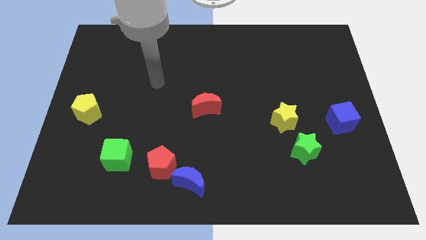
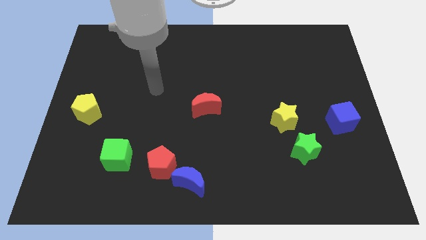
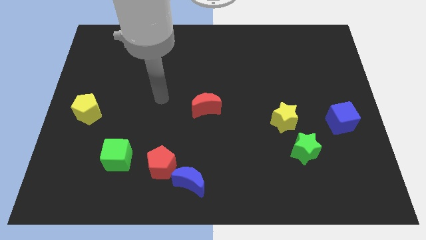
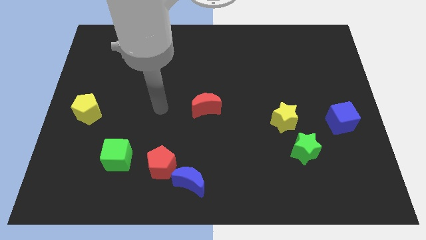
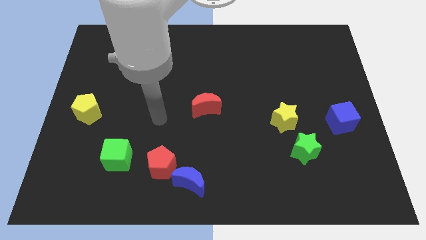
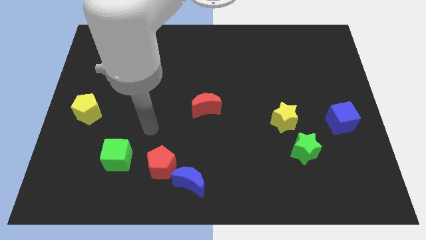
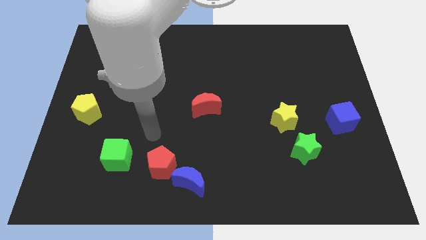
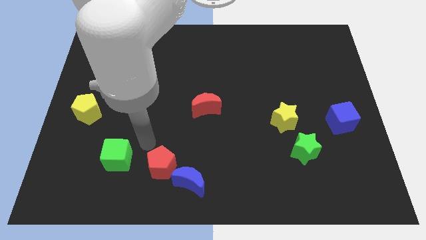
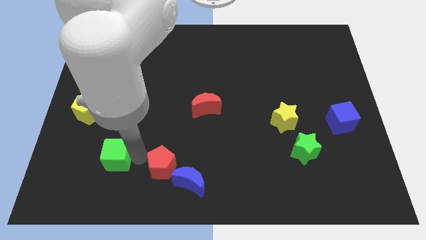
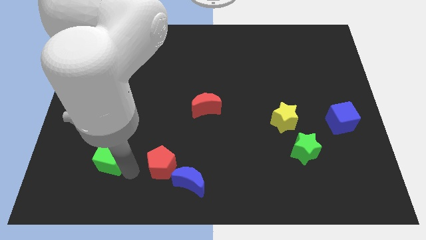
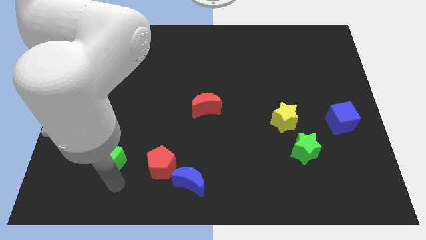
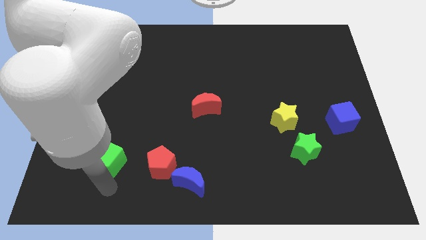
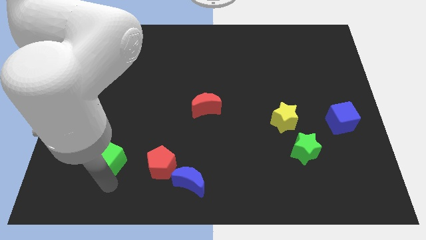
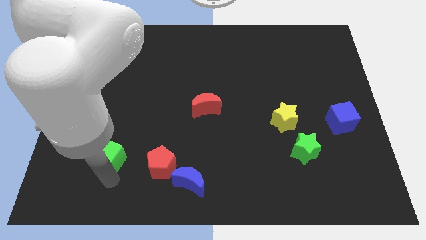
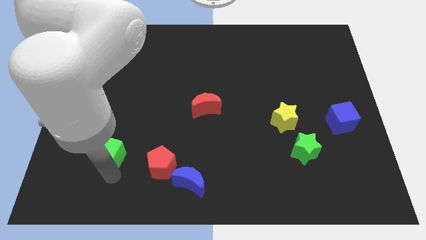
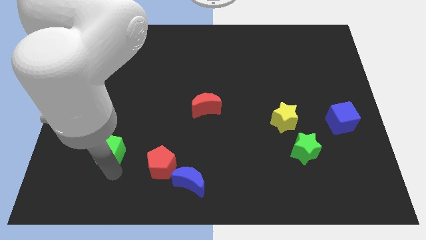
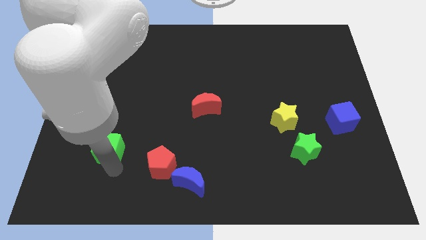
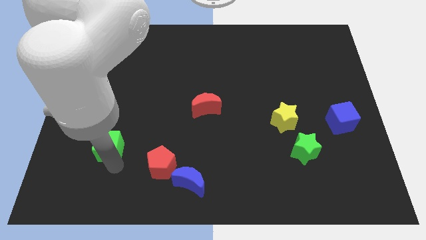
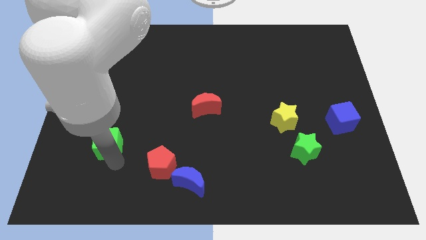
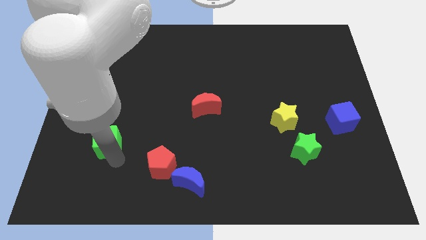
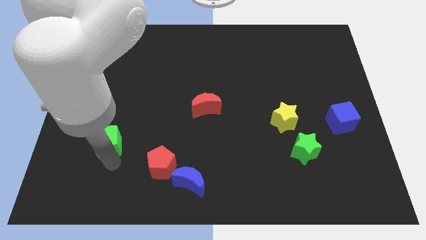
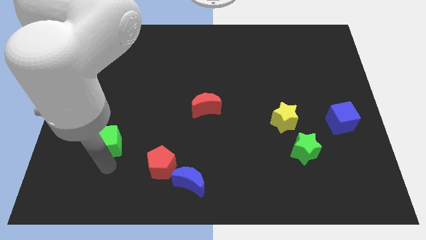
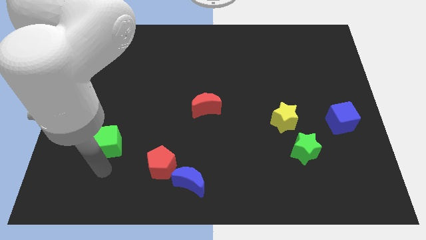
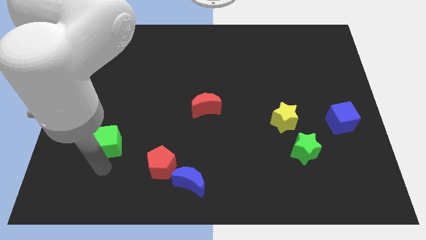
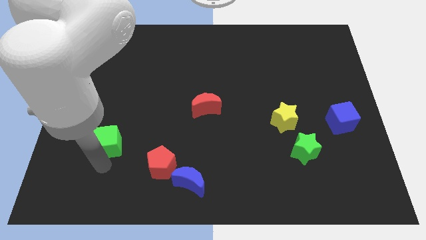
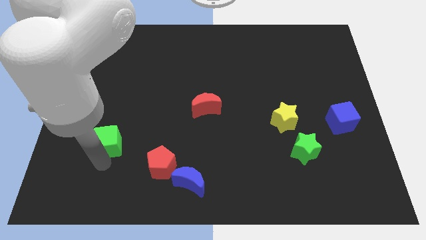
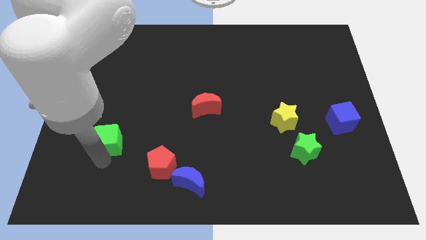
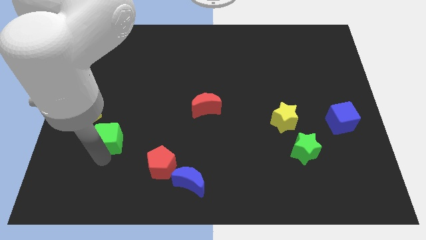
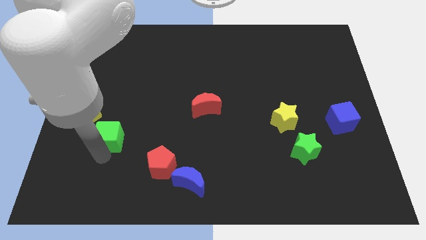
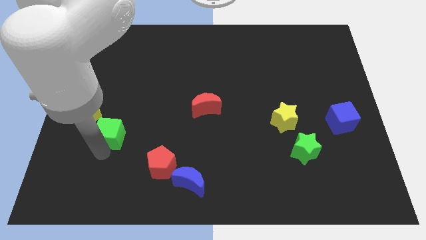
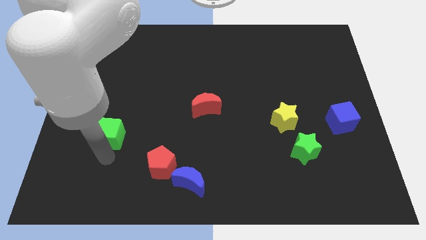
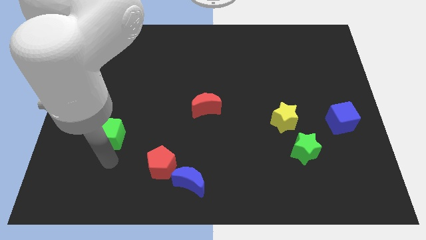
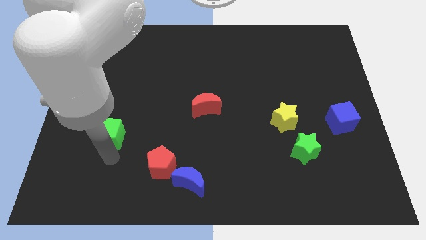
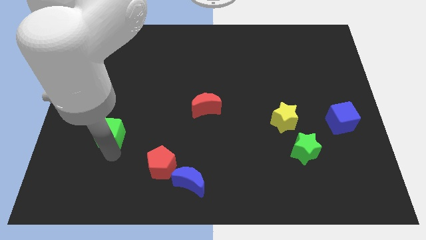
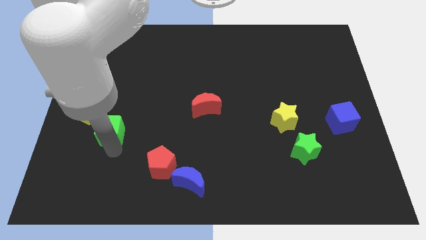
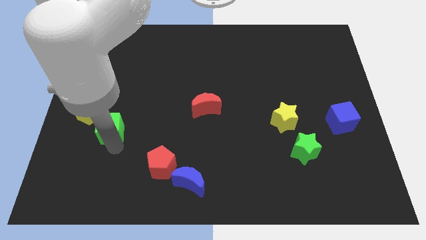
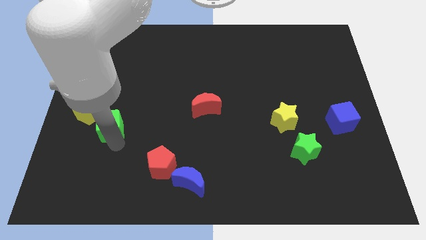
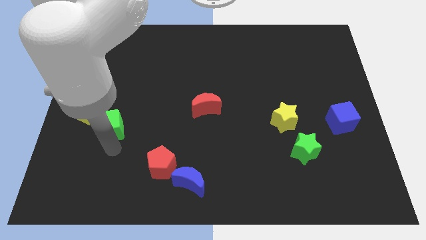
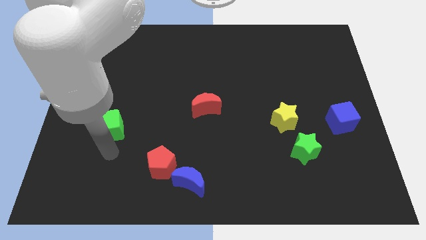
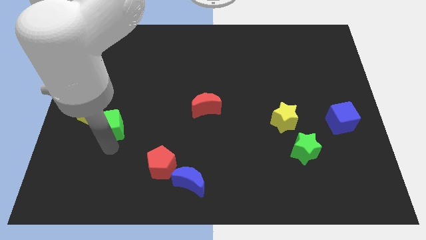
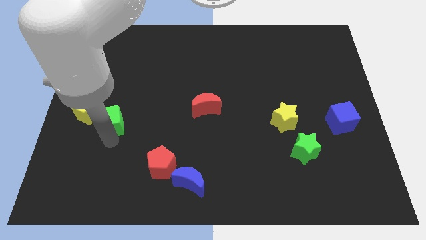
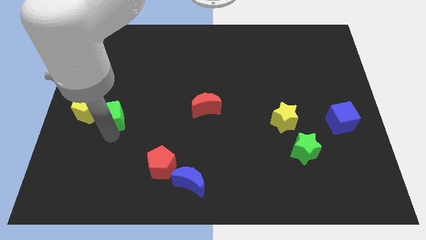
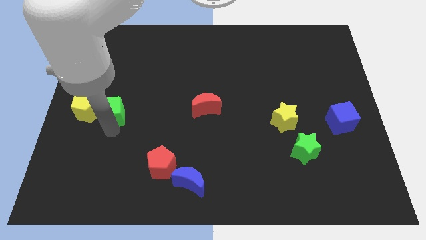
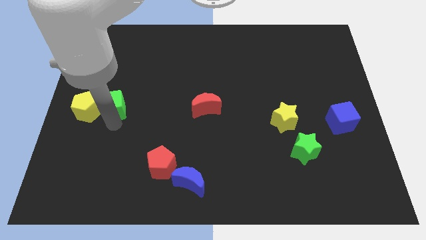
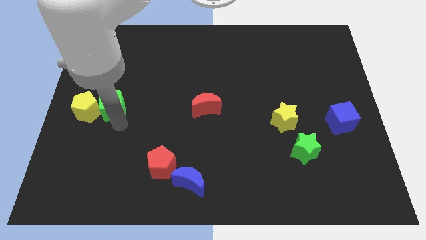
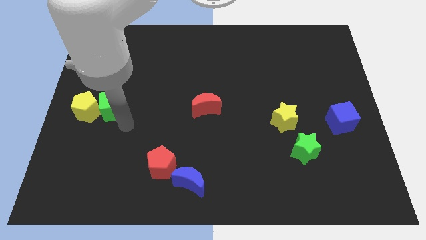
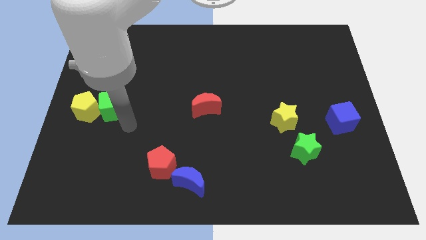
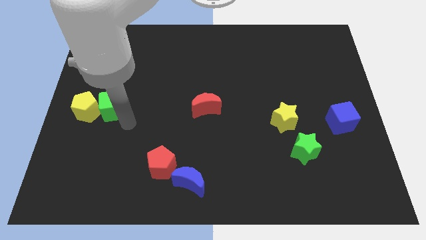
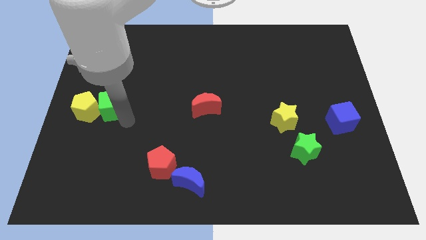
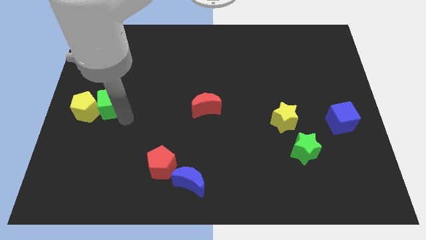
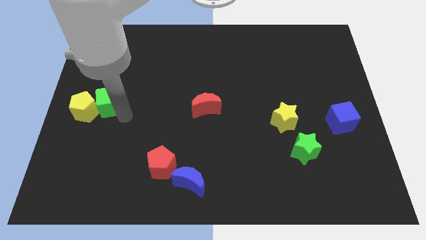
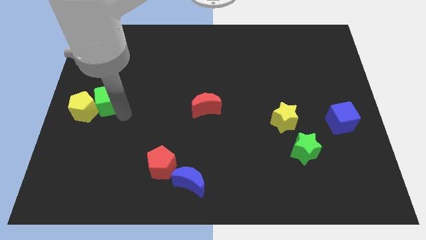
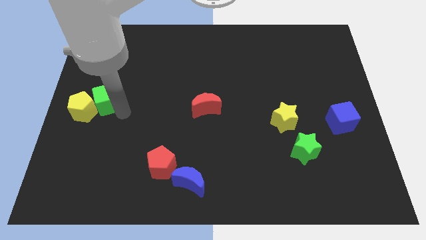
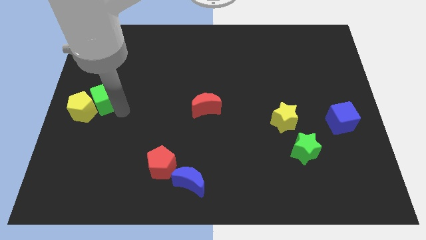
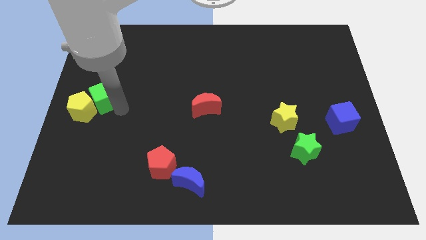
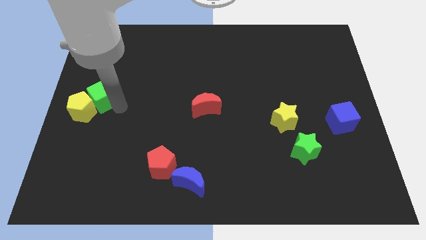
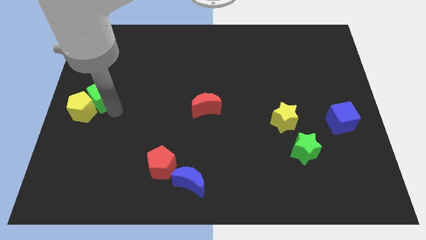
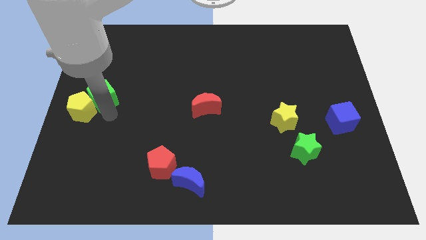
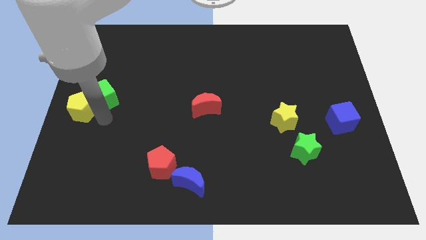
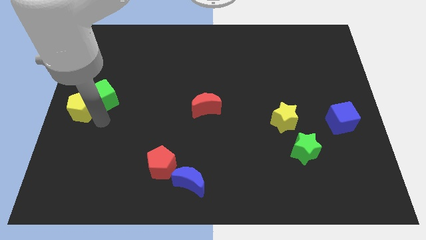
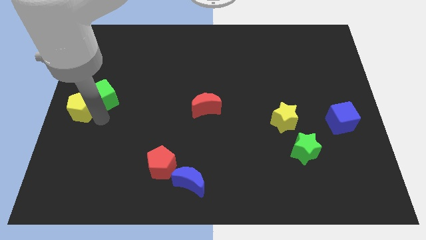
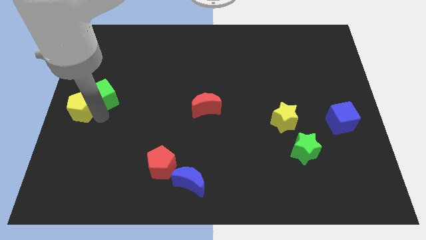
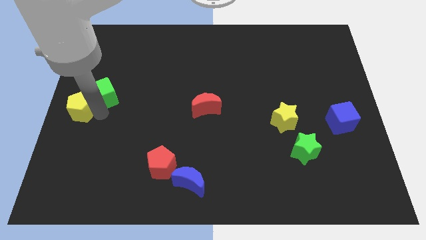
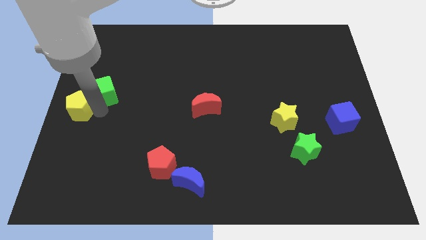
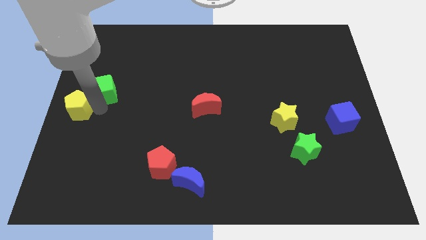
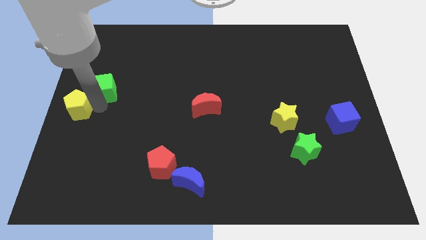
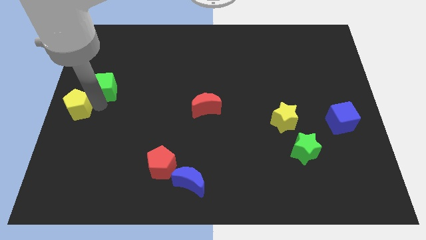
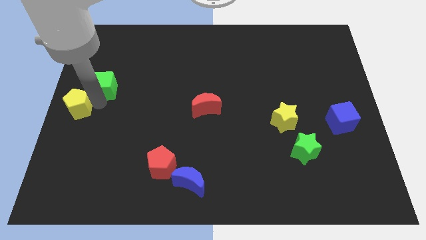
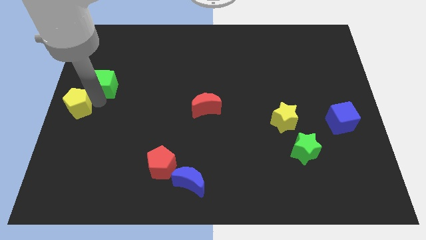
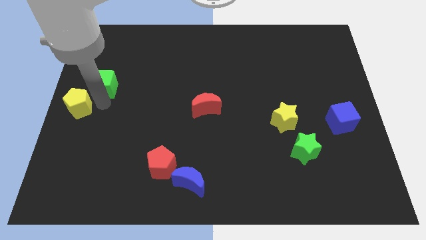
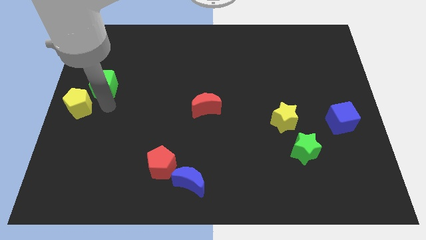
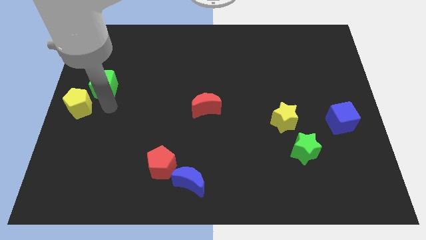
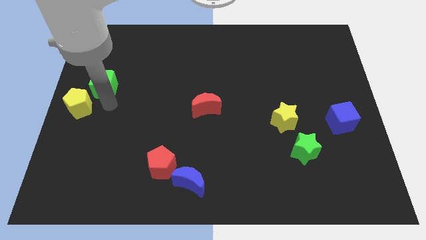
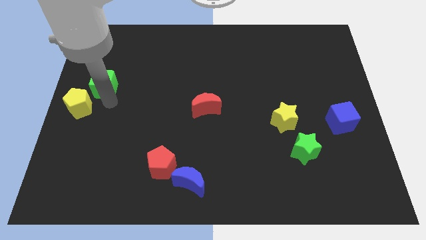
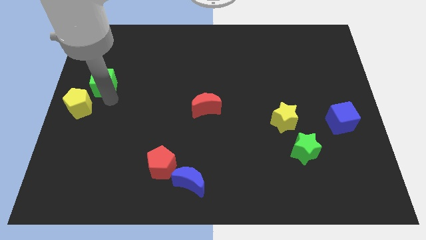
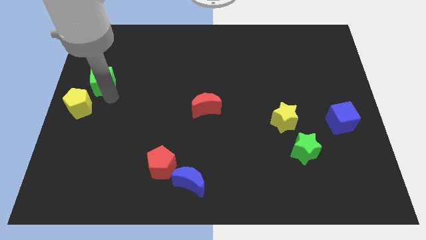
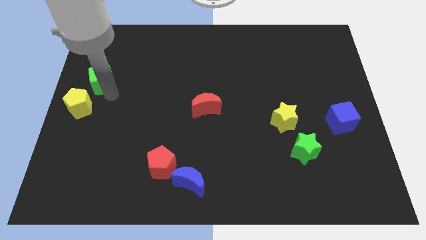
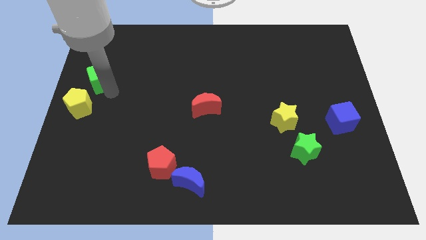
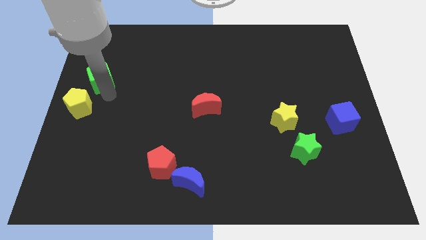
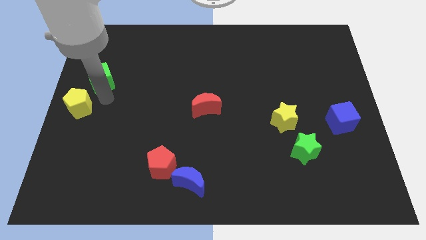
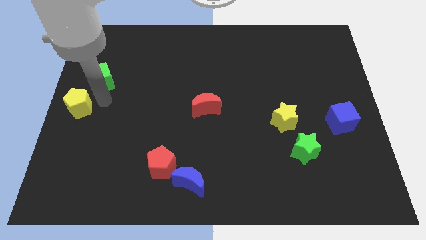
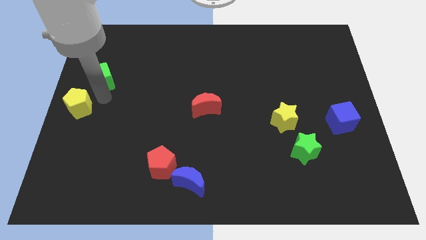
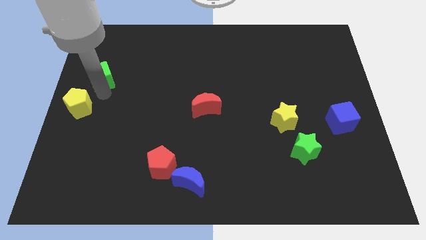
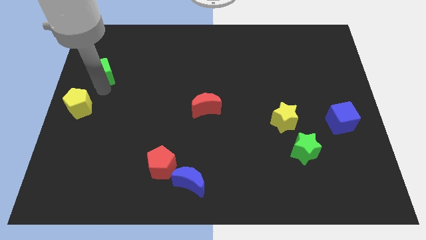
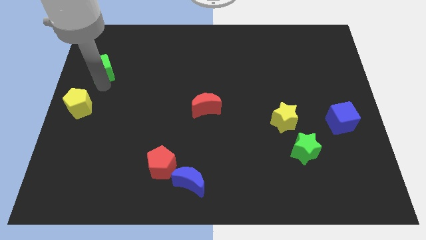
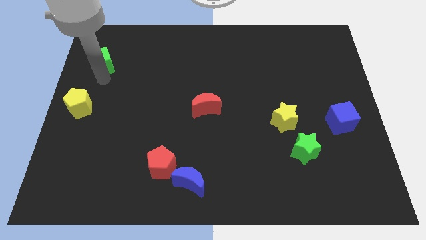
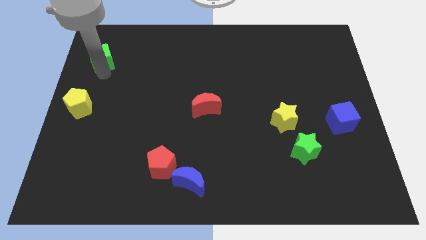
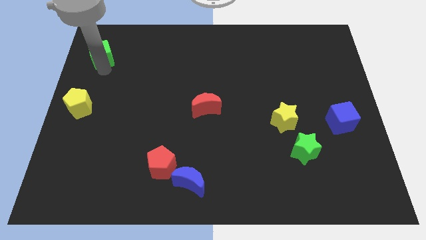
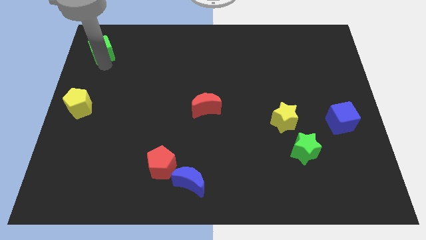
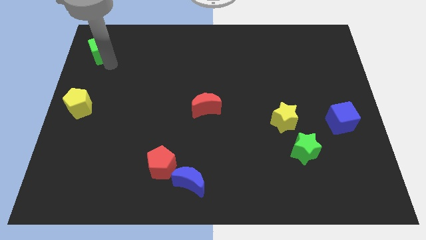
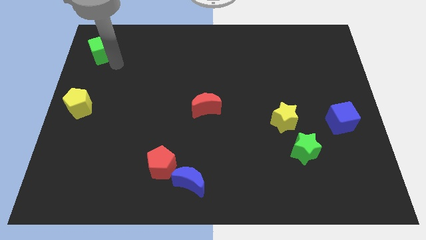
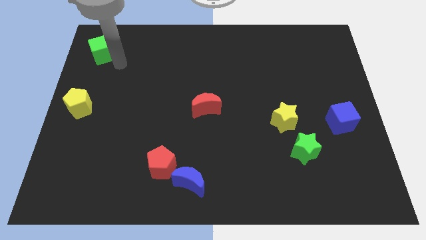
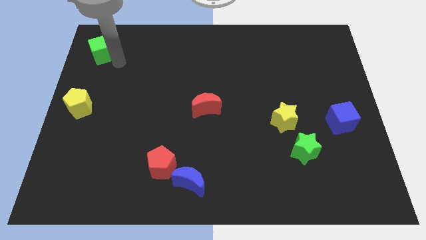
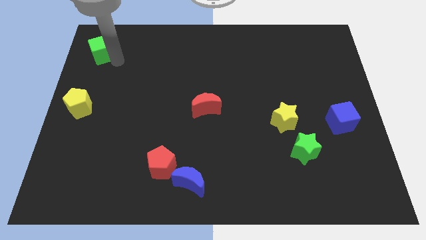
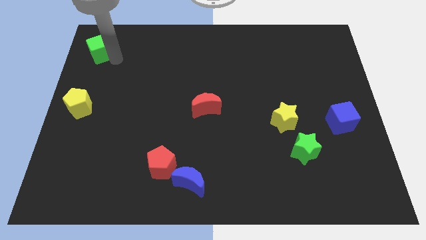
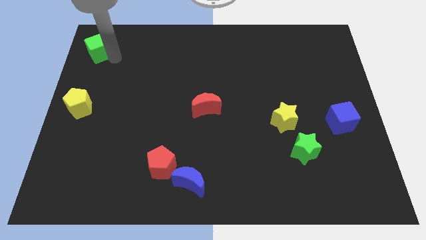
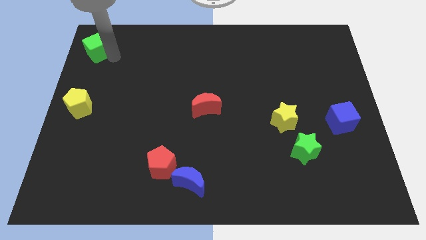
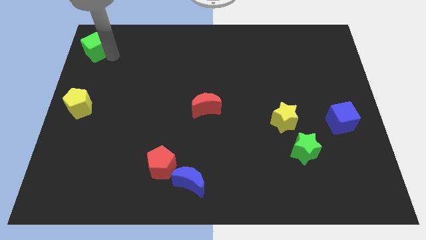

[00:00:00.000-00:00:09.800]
put the green cube to the top left of the board
